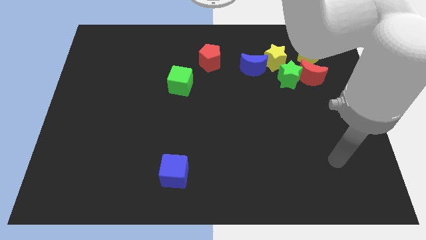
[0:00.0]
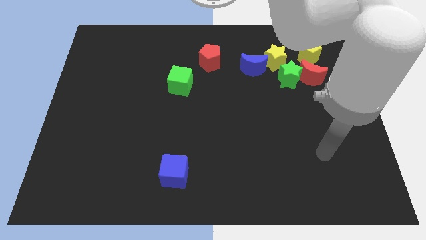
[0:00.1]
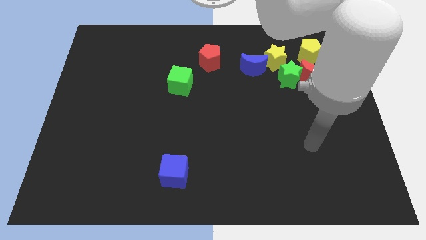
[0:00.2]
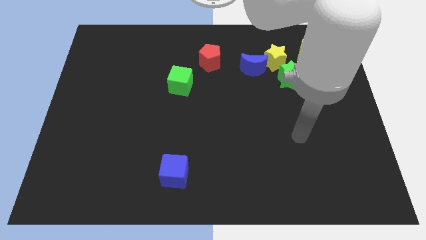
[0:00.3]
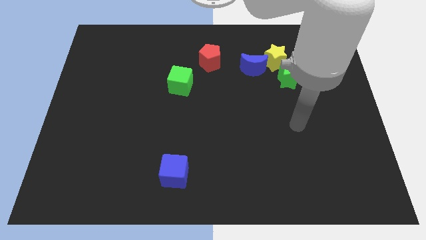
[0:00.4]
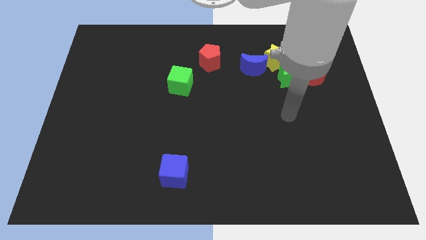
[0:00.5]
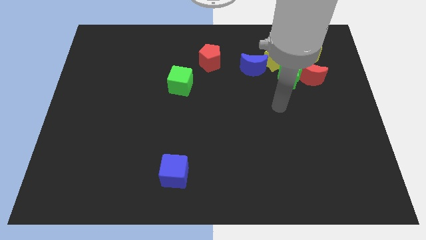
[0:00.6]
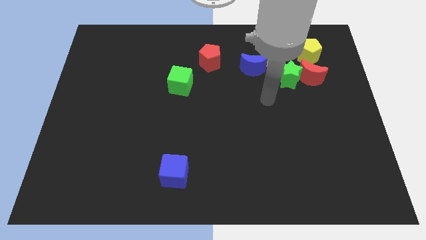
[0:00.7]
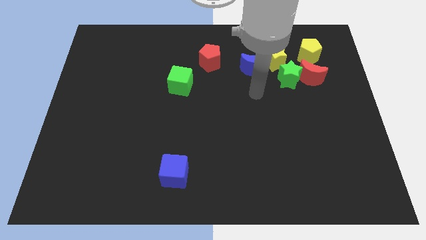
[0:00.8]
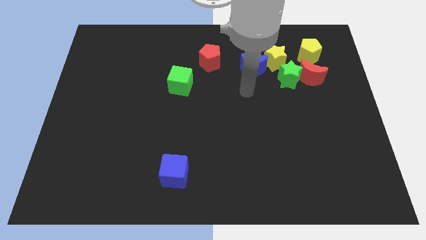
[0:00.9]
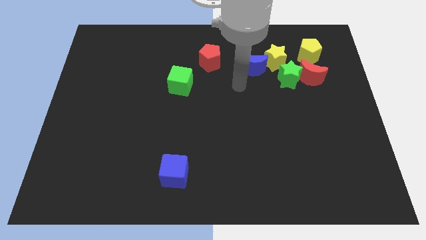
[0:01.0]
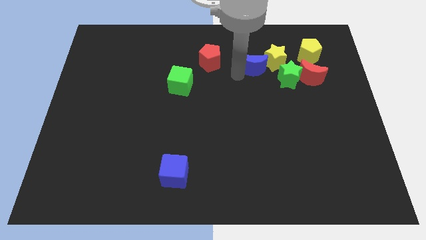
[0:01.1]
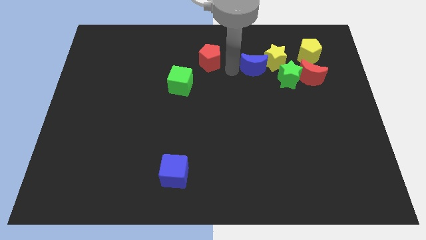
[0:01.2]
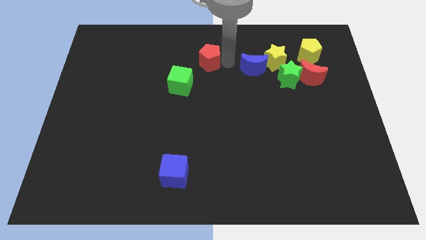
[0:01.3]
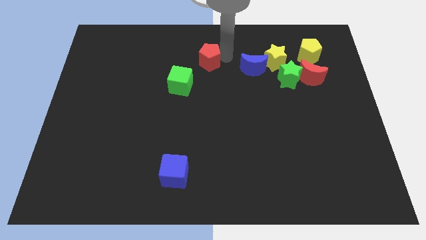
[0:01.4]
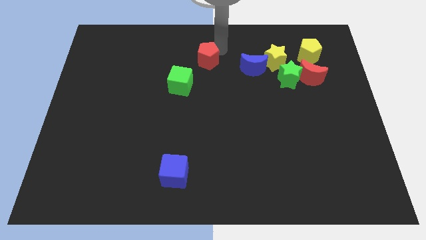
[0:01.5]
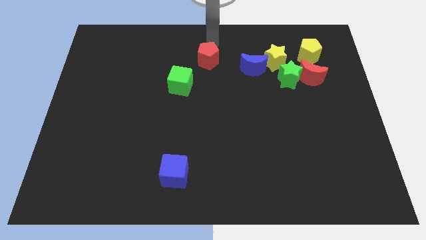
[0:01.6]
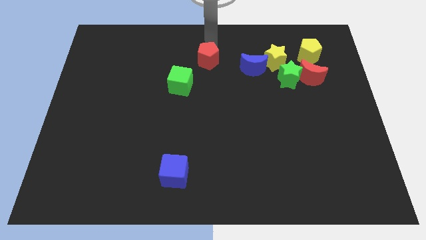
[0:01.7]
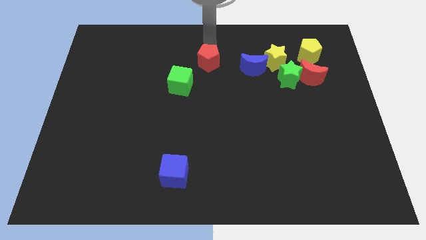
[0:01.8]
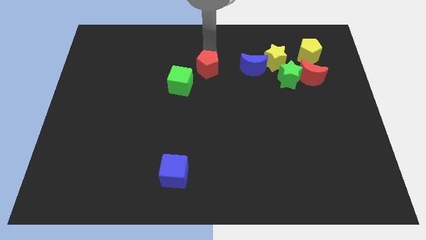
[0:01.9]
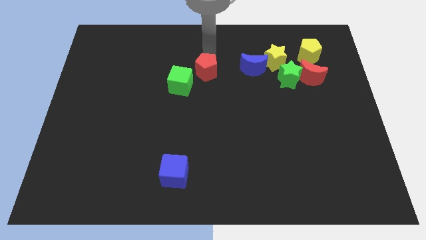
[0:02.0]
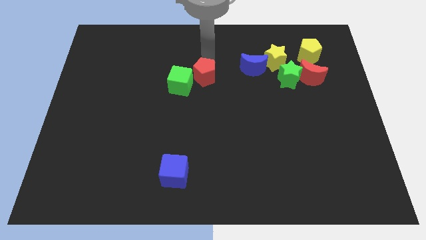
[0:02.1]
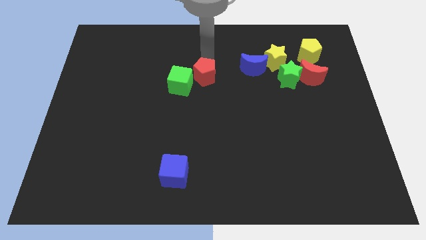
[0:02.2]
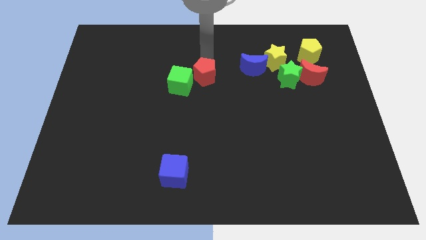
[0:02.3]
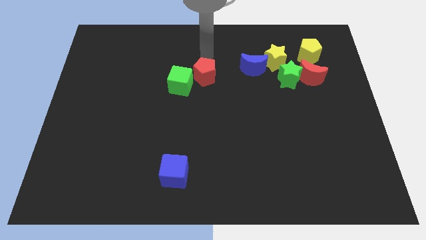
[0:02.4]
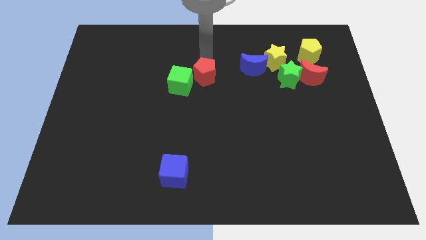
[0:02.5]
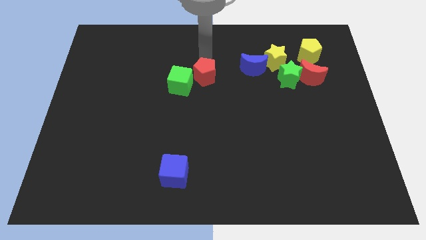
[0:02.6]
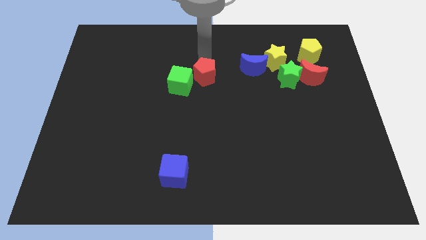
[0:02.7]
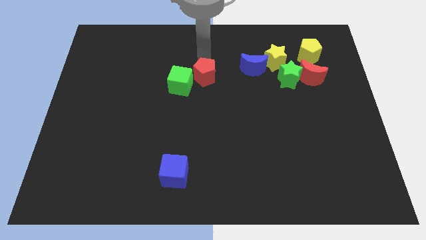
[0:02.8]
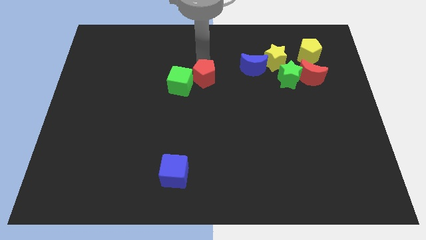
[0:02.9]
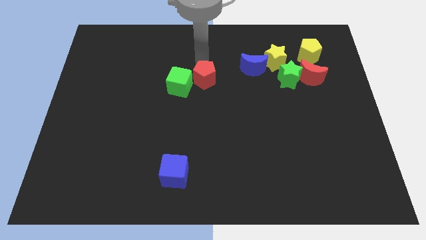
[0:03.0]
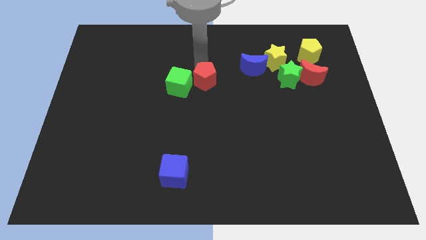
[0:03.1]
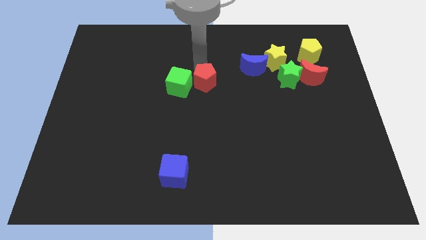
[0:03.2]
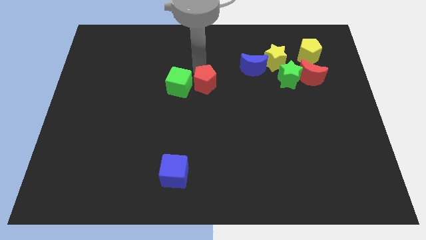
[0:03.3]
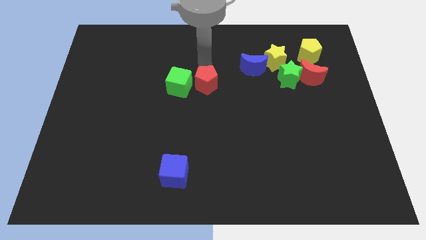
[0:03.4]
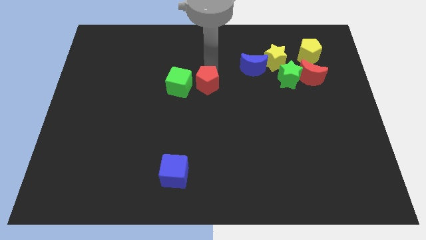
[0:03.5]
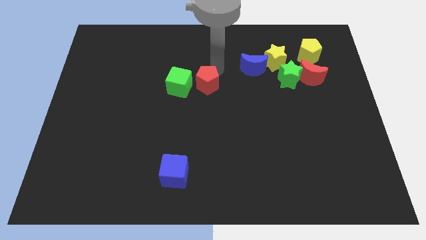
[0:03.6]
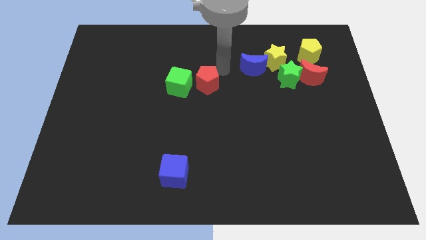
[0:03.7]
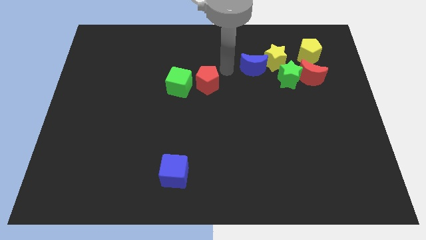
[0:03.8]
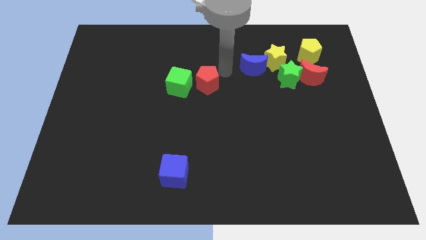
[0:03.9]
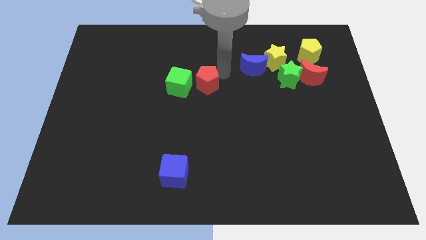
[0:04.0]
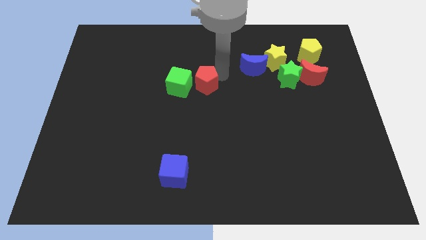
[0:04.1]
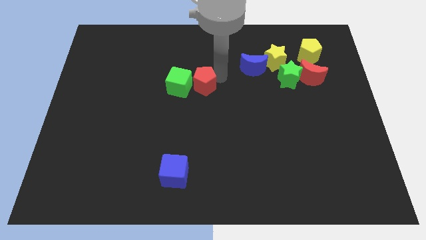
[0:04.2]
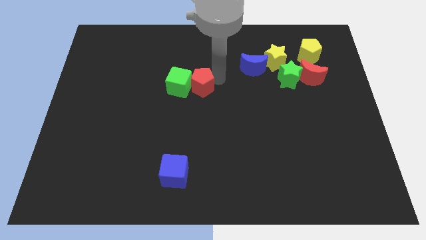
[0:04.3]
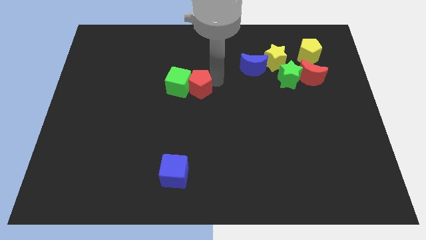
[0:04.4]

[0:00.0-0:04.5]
slightly push the red pentagon diagonally down and to the left

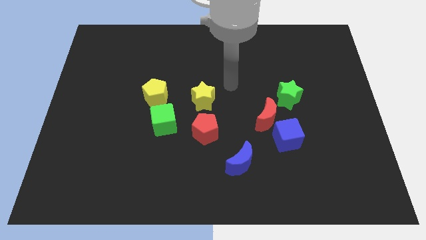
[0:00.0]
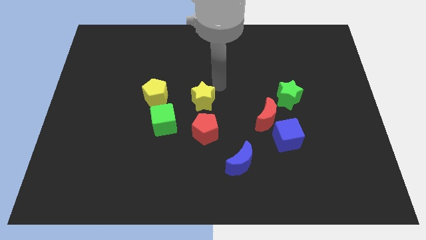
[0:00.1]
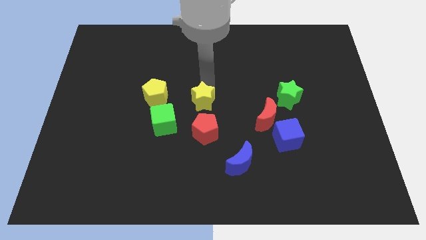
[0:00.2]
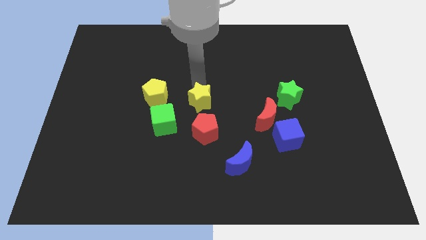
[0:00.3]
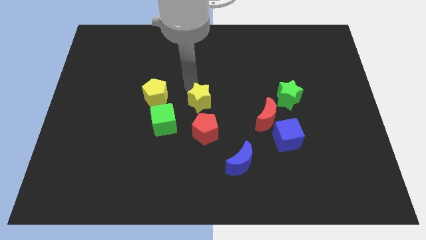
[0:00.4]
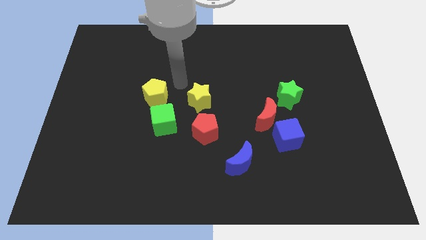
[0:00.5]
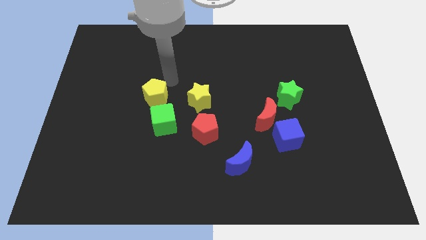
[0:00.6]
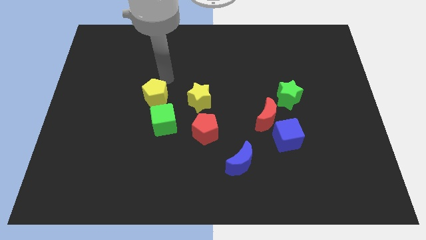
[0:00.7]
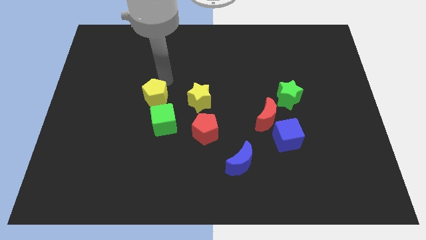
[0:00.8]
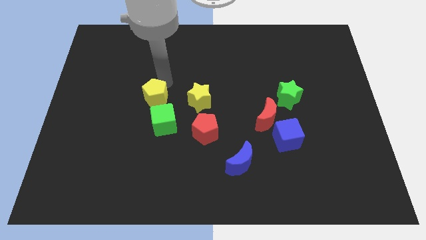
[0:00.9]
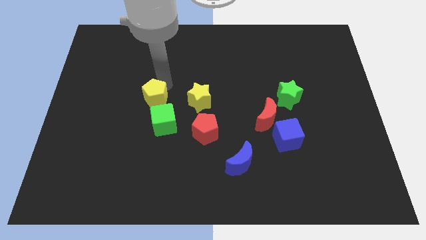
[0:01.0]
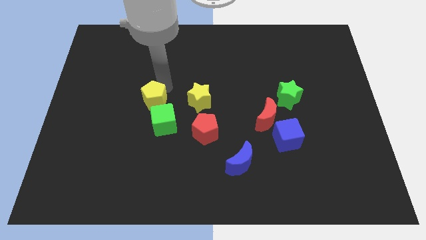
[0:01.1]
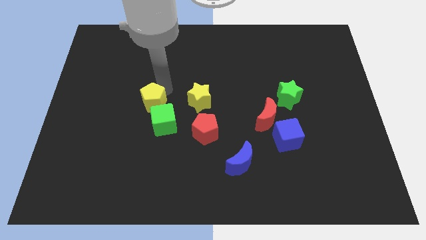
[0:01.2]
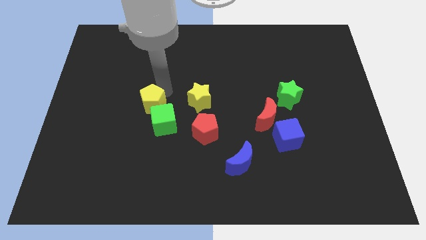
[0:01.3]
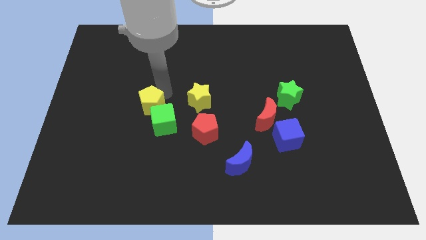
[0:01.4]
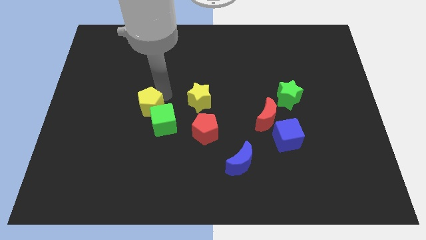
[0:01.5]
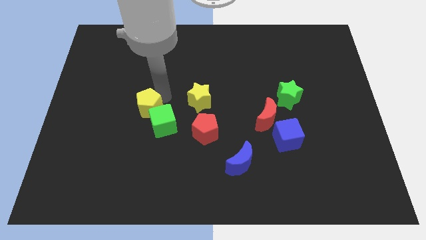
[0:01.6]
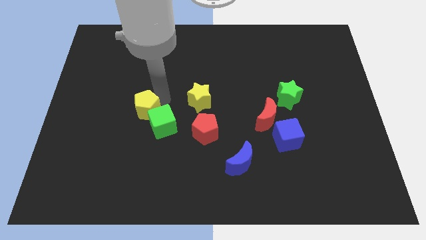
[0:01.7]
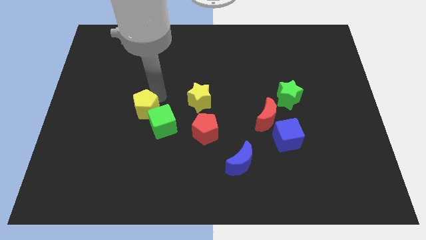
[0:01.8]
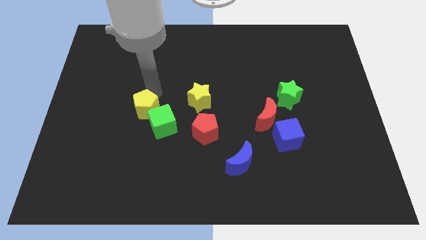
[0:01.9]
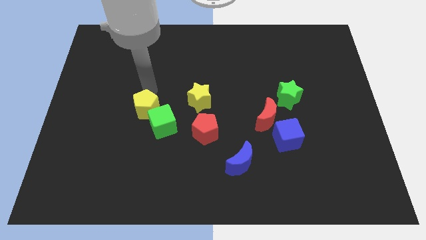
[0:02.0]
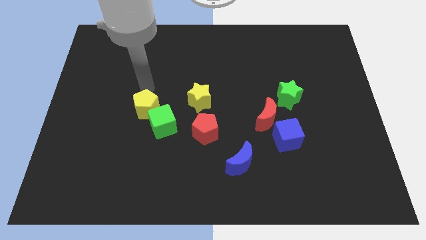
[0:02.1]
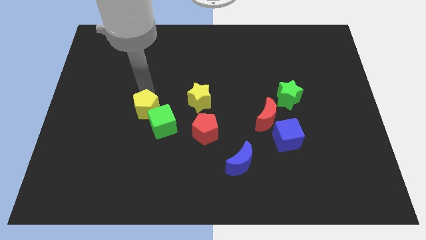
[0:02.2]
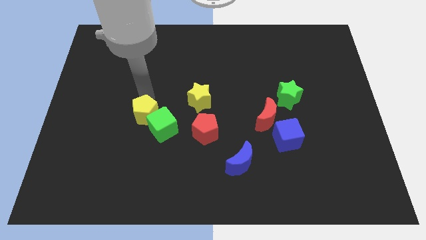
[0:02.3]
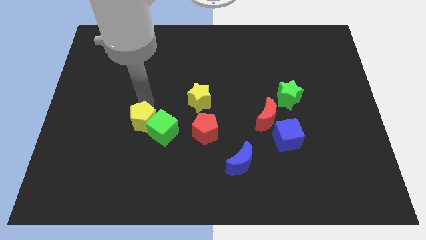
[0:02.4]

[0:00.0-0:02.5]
push the yellow pentagon slightly downwards

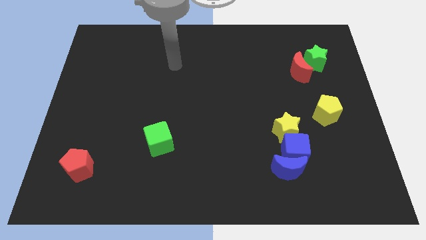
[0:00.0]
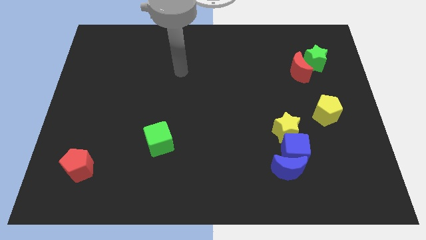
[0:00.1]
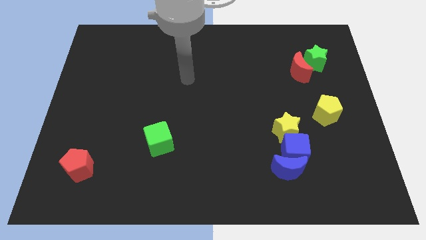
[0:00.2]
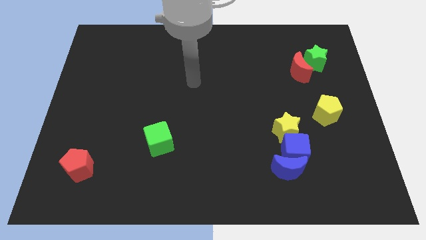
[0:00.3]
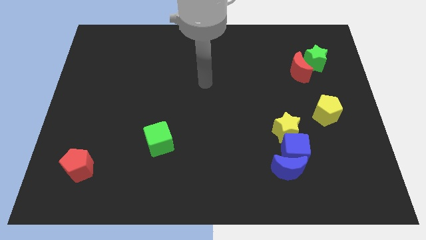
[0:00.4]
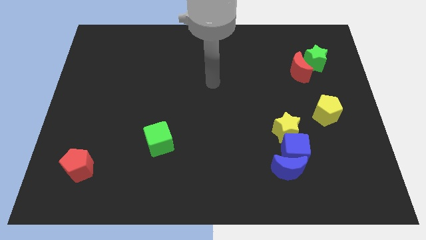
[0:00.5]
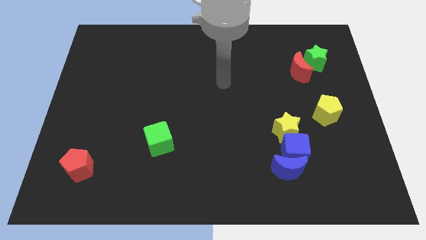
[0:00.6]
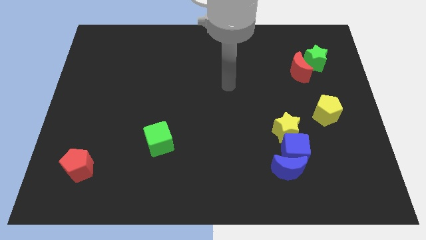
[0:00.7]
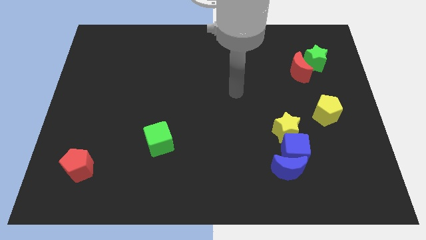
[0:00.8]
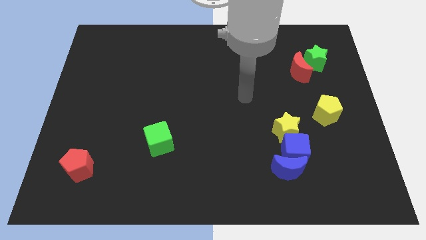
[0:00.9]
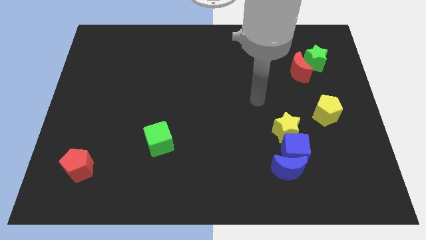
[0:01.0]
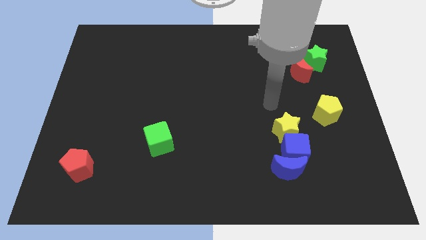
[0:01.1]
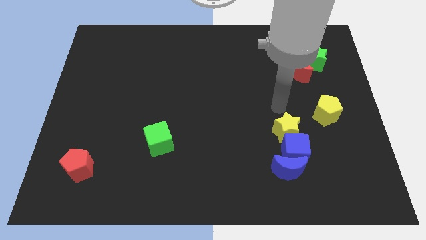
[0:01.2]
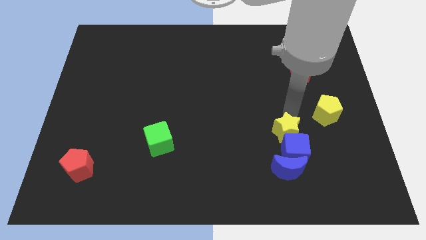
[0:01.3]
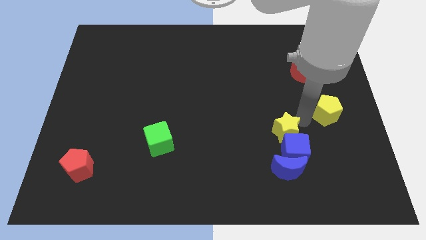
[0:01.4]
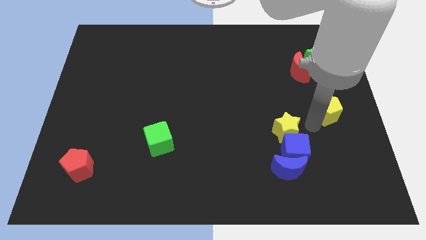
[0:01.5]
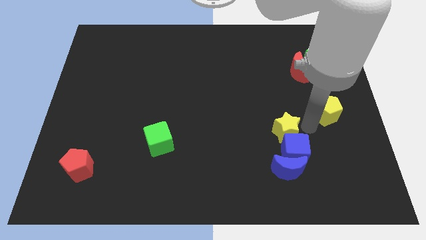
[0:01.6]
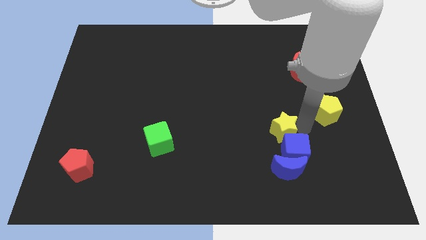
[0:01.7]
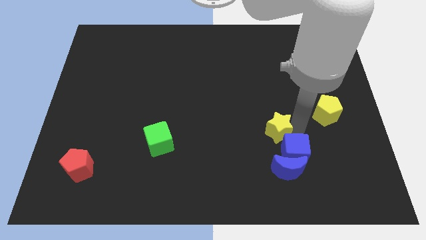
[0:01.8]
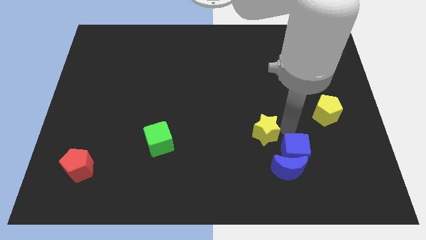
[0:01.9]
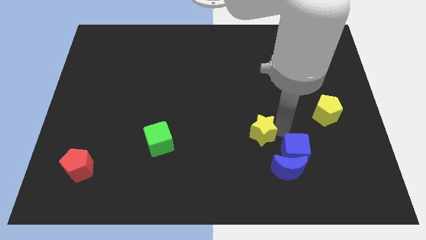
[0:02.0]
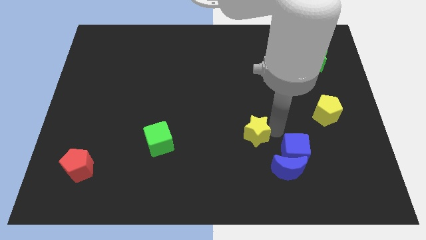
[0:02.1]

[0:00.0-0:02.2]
slightly slide the yellow star left
